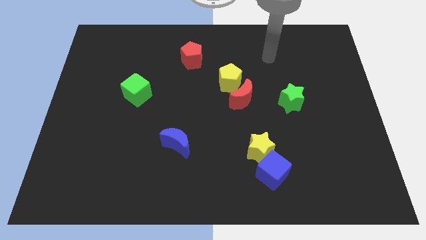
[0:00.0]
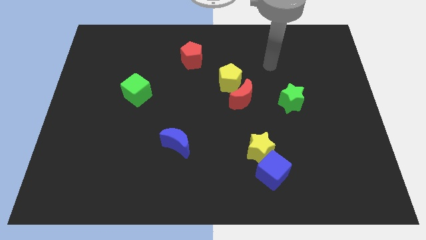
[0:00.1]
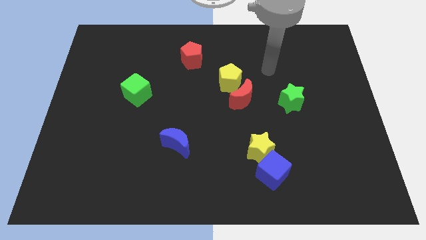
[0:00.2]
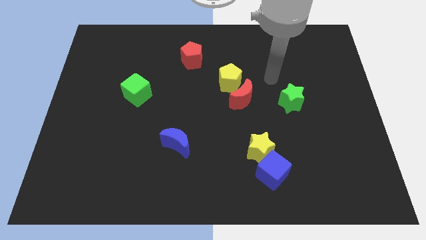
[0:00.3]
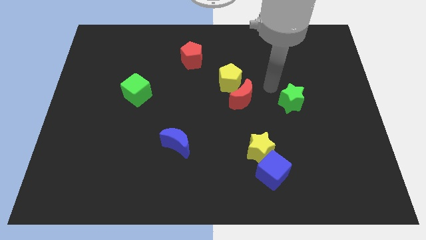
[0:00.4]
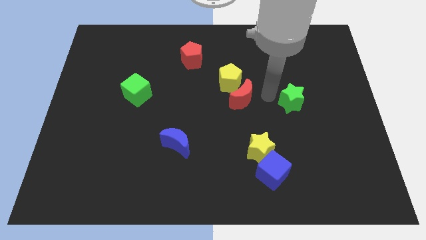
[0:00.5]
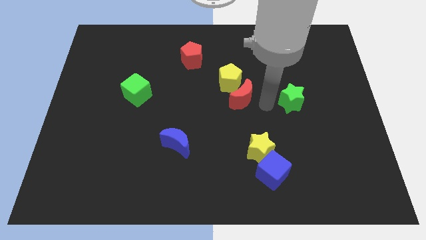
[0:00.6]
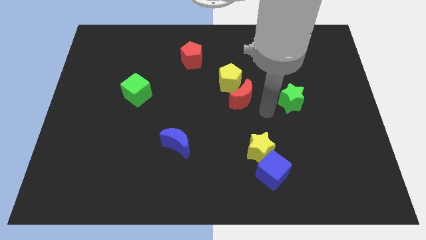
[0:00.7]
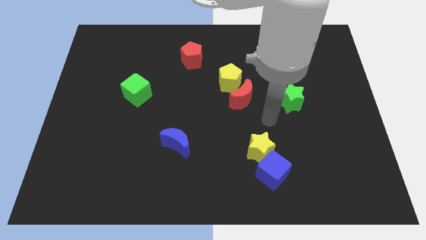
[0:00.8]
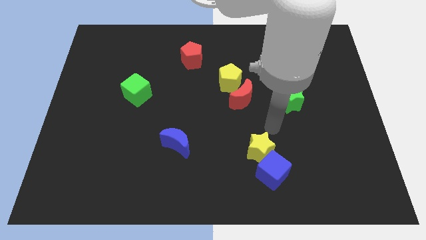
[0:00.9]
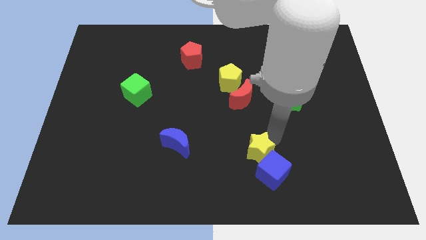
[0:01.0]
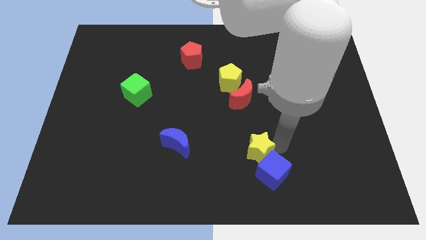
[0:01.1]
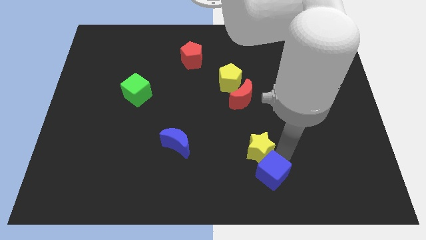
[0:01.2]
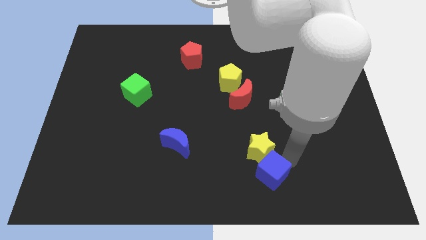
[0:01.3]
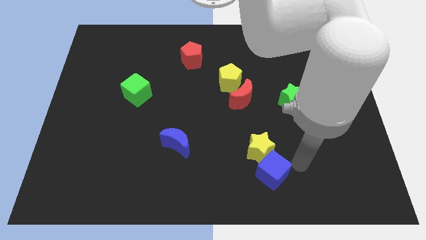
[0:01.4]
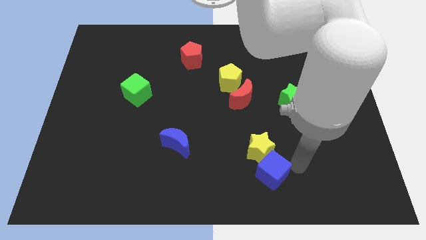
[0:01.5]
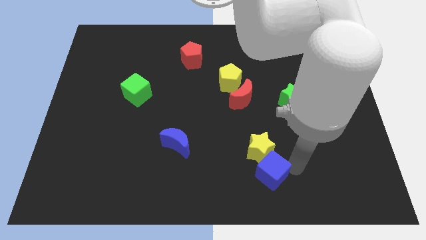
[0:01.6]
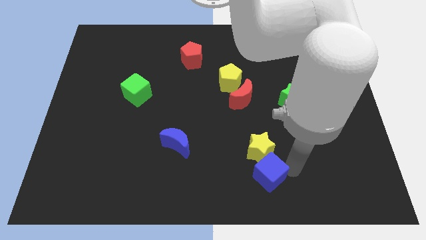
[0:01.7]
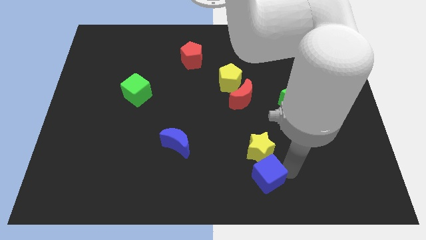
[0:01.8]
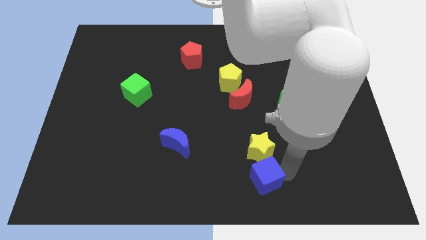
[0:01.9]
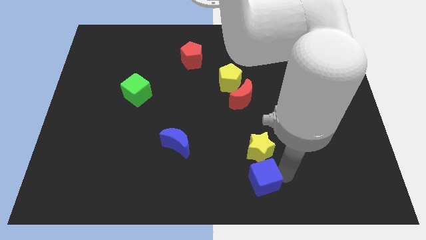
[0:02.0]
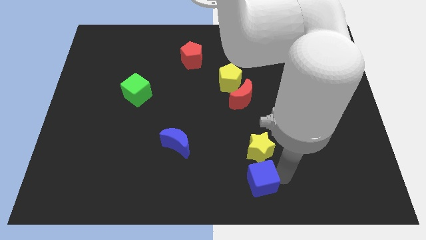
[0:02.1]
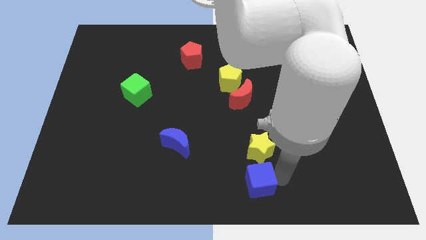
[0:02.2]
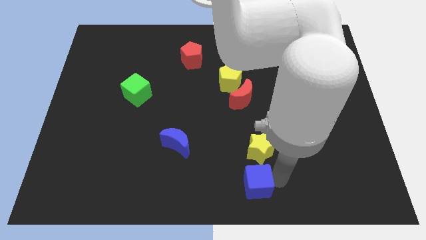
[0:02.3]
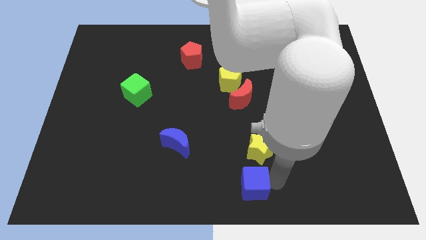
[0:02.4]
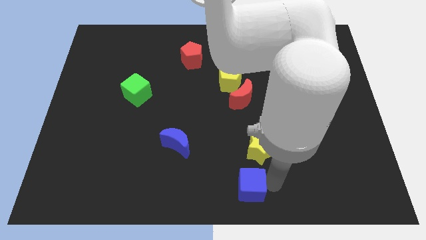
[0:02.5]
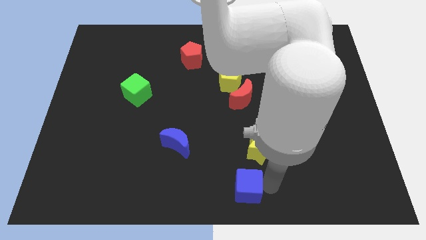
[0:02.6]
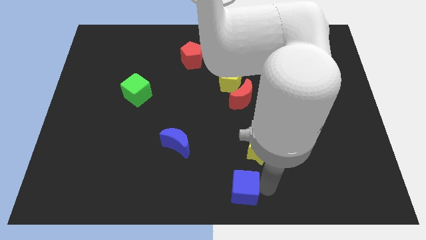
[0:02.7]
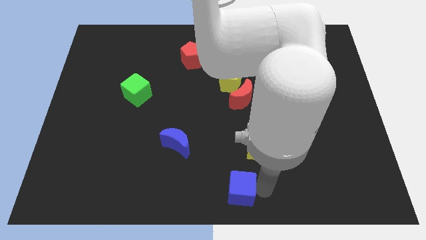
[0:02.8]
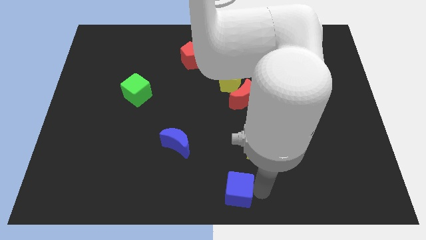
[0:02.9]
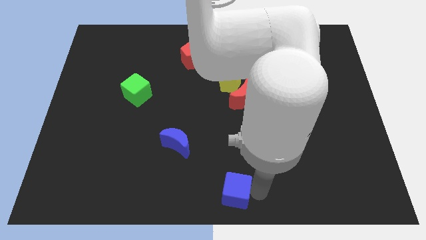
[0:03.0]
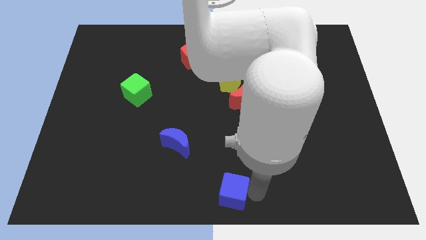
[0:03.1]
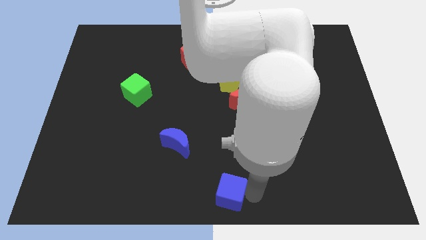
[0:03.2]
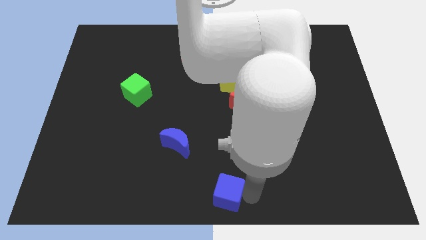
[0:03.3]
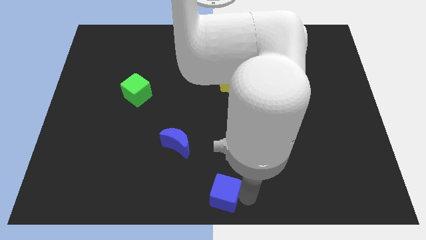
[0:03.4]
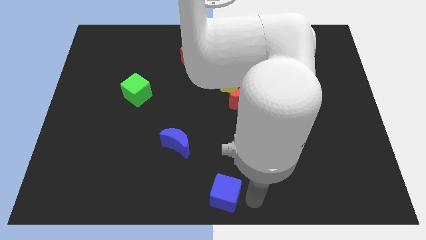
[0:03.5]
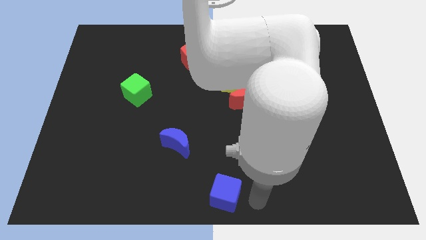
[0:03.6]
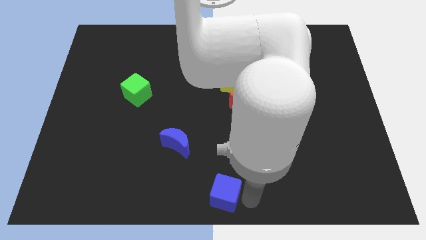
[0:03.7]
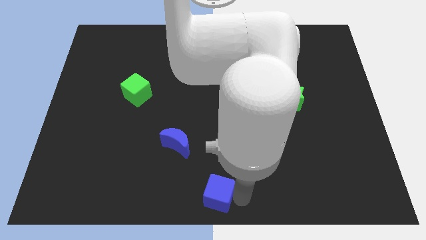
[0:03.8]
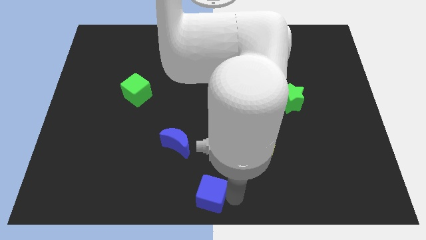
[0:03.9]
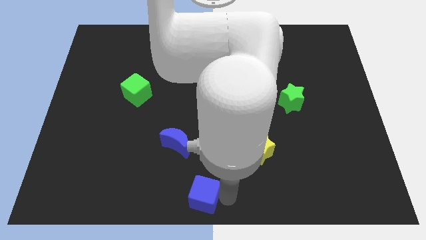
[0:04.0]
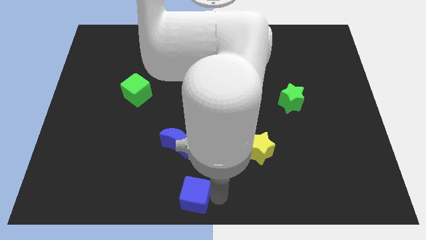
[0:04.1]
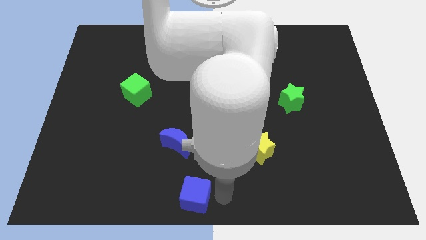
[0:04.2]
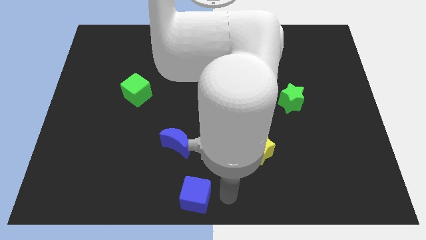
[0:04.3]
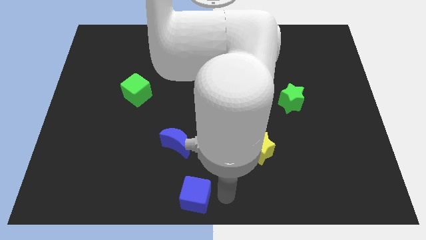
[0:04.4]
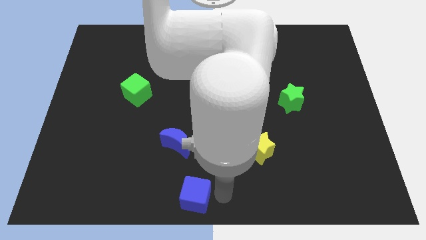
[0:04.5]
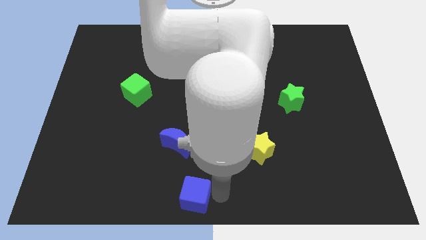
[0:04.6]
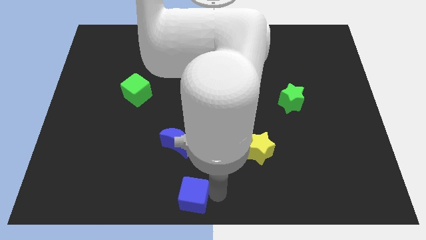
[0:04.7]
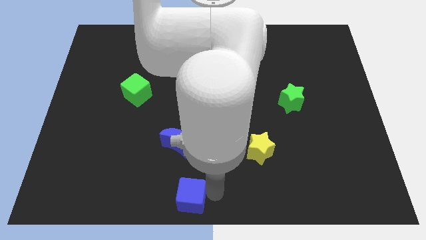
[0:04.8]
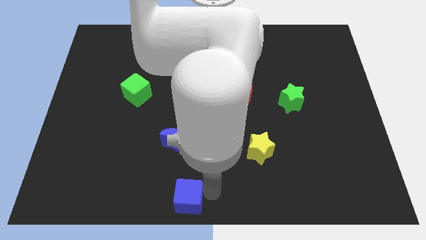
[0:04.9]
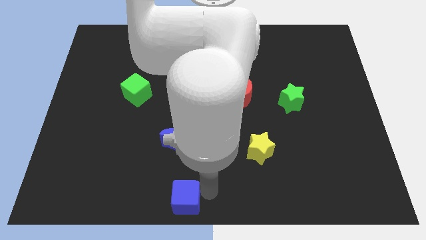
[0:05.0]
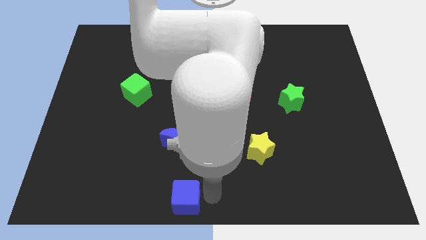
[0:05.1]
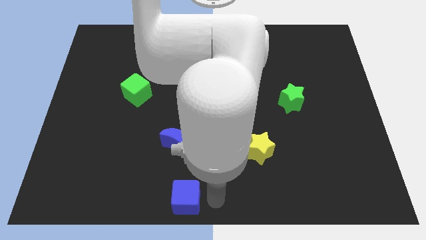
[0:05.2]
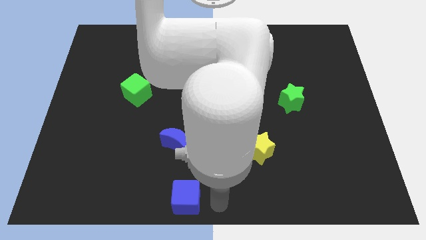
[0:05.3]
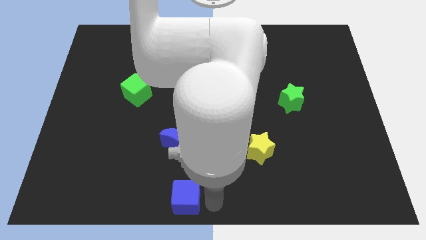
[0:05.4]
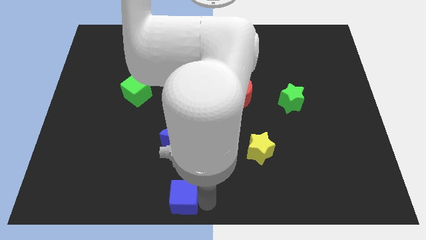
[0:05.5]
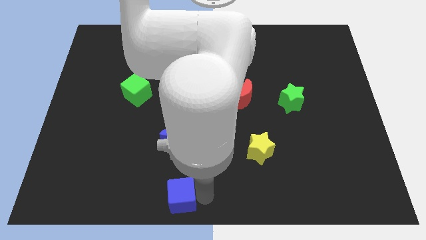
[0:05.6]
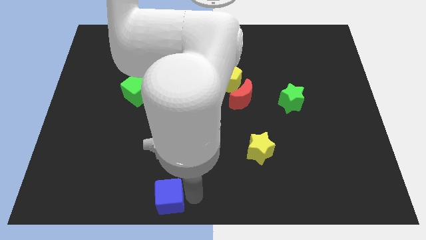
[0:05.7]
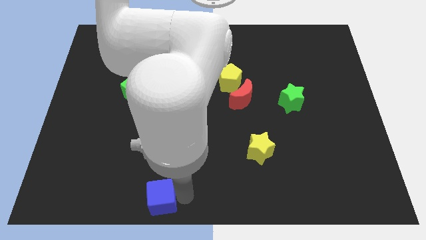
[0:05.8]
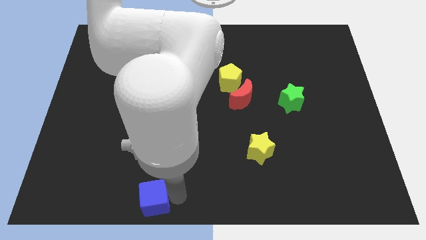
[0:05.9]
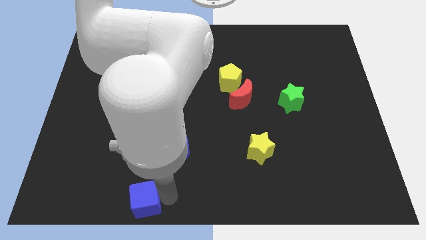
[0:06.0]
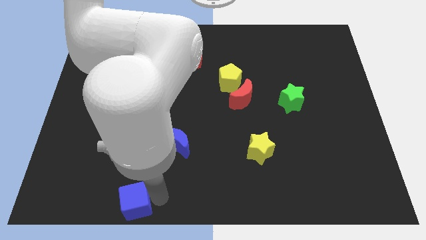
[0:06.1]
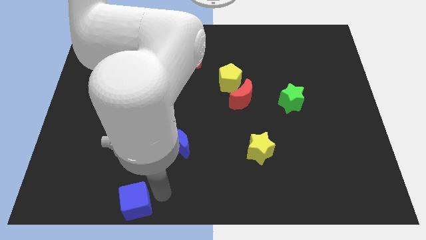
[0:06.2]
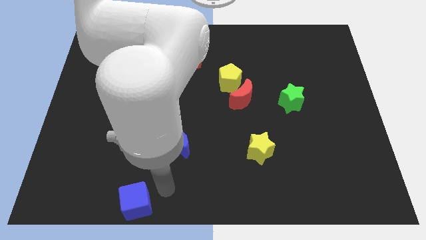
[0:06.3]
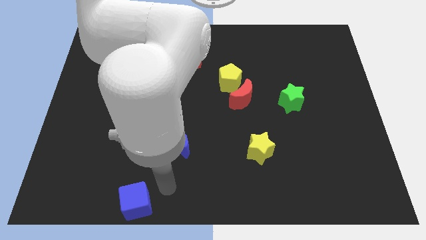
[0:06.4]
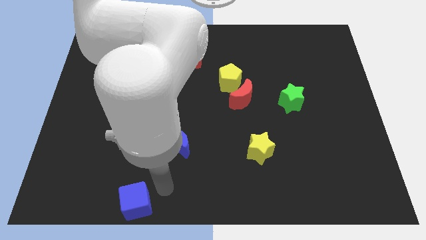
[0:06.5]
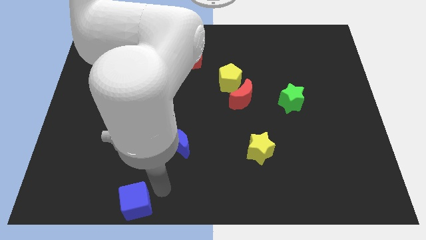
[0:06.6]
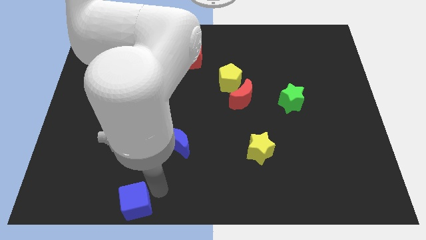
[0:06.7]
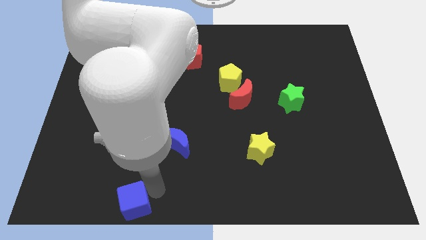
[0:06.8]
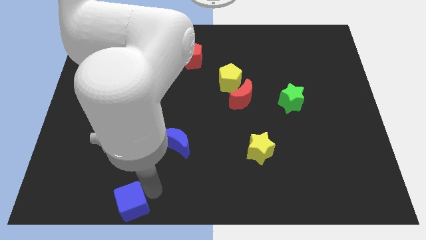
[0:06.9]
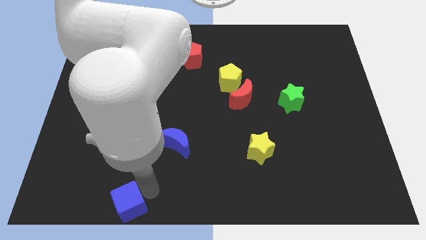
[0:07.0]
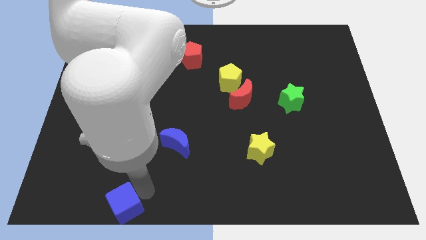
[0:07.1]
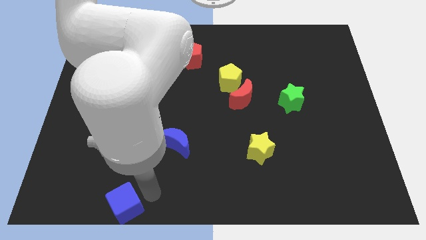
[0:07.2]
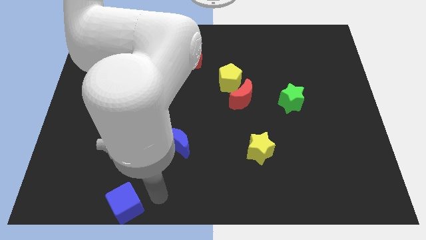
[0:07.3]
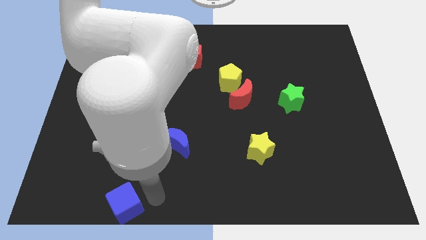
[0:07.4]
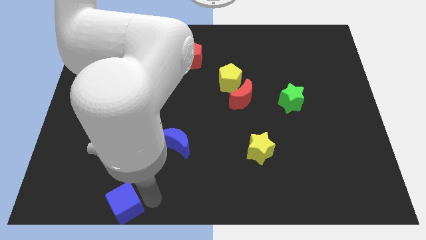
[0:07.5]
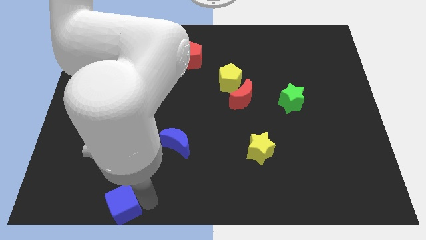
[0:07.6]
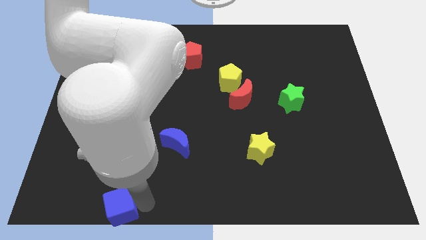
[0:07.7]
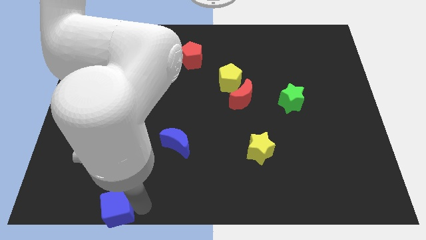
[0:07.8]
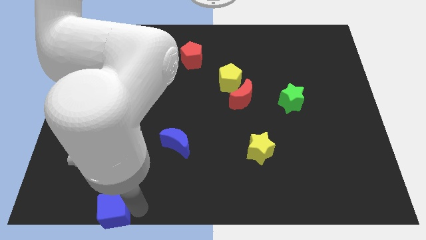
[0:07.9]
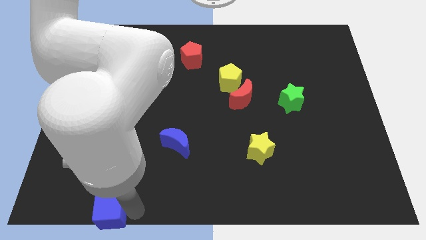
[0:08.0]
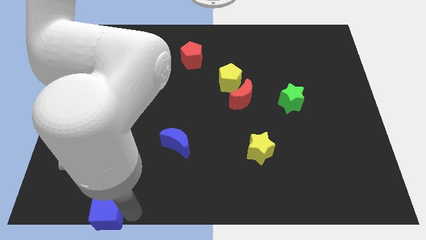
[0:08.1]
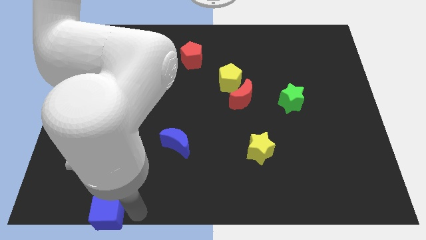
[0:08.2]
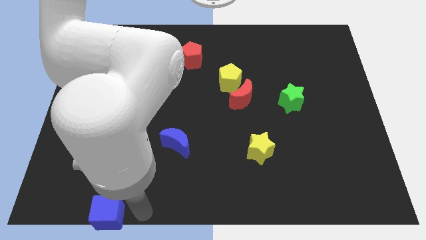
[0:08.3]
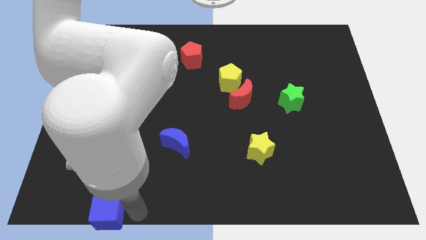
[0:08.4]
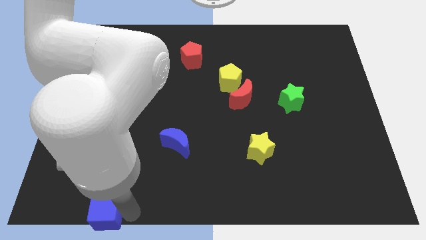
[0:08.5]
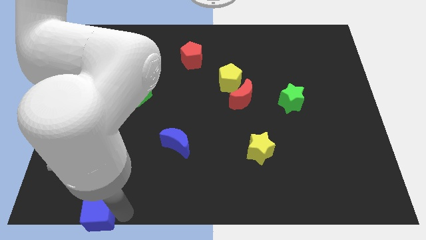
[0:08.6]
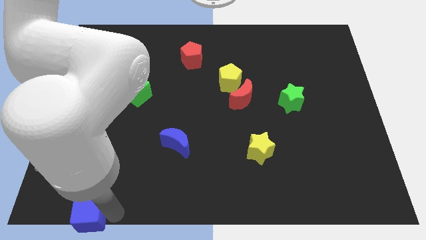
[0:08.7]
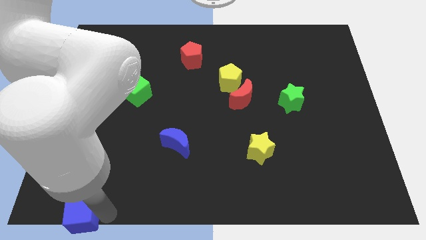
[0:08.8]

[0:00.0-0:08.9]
move the blue cube to the bottom left
